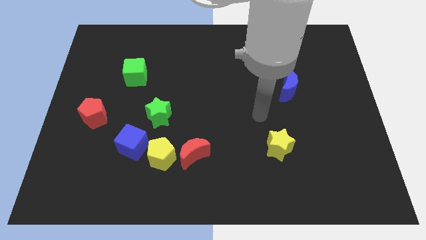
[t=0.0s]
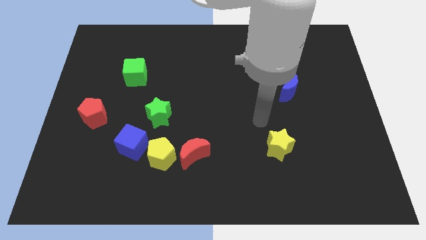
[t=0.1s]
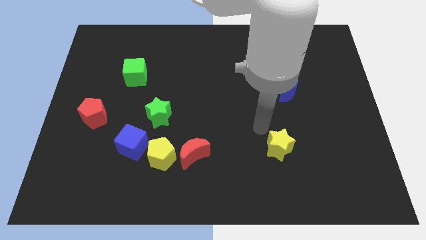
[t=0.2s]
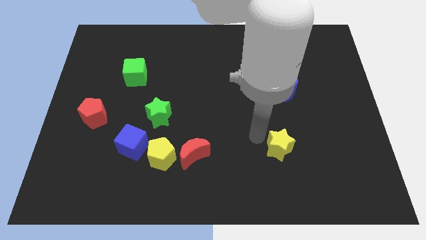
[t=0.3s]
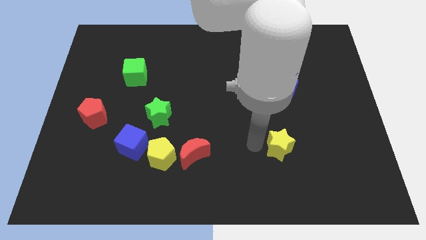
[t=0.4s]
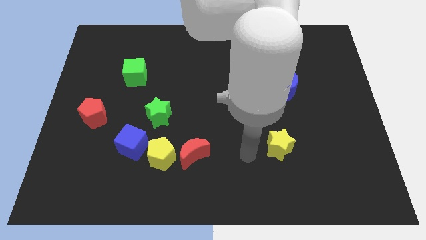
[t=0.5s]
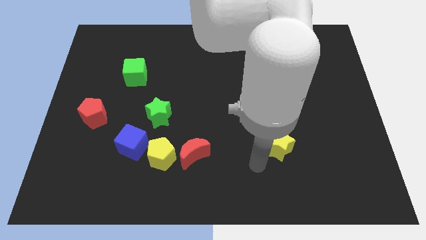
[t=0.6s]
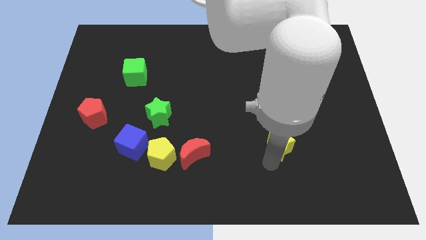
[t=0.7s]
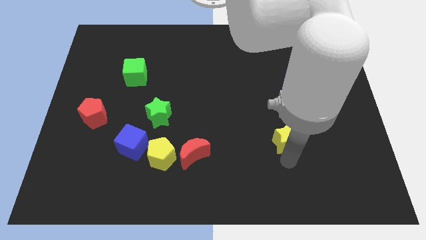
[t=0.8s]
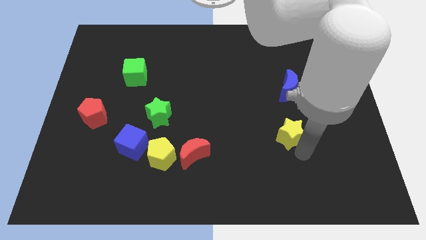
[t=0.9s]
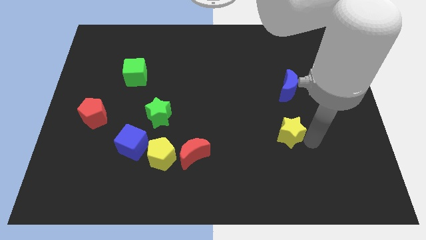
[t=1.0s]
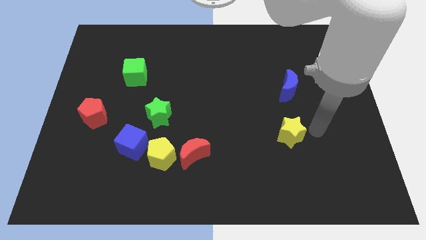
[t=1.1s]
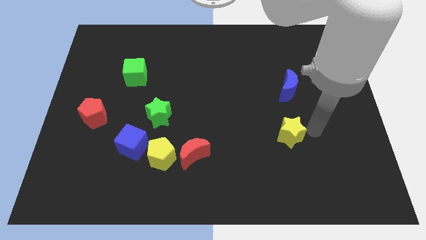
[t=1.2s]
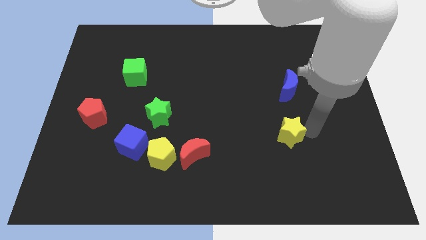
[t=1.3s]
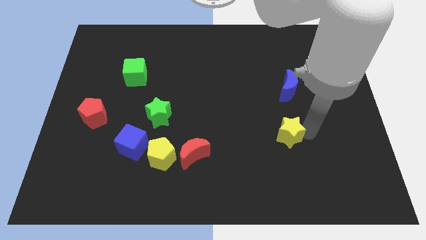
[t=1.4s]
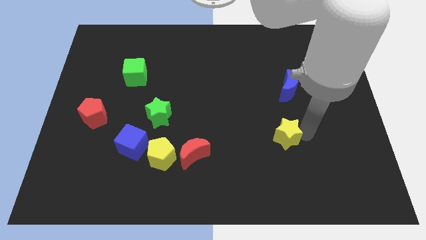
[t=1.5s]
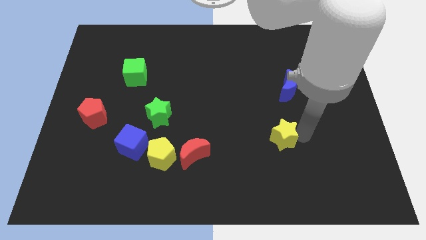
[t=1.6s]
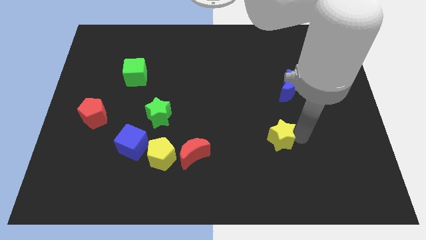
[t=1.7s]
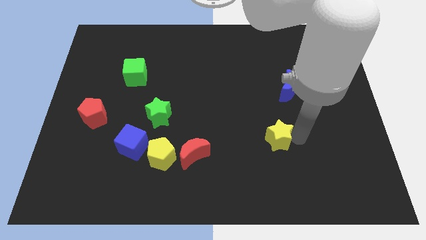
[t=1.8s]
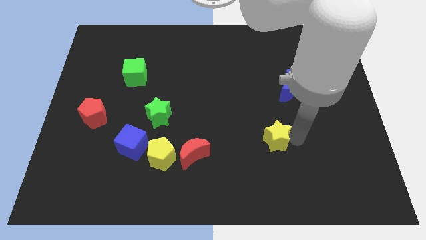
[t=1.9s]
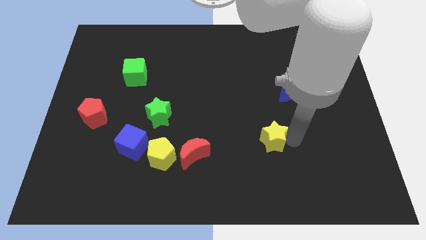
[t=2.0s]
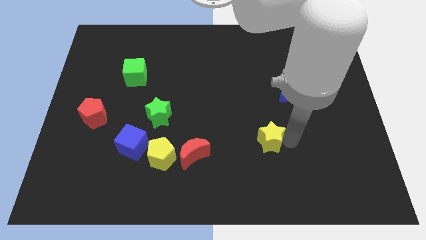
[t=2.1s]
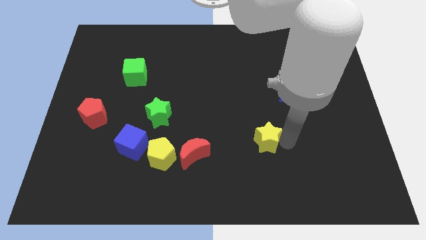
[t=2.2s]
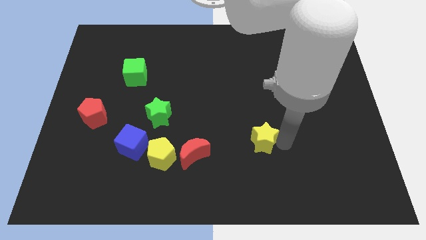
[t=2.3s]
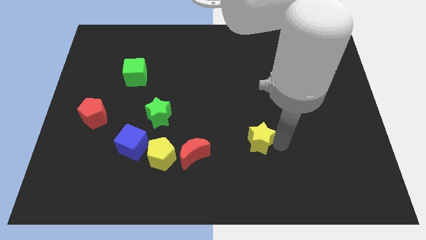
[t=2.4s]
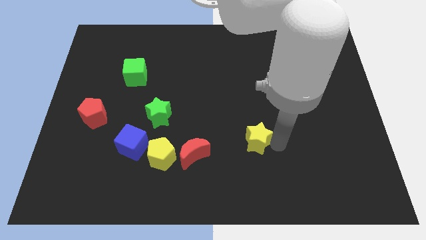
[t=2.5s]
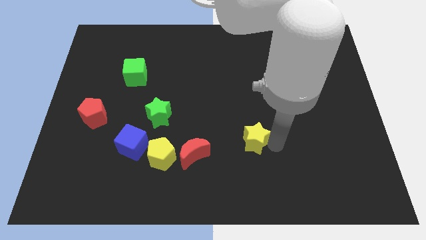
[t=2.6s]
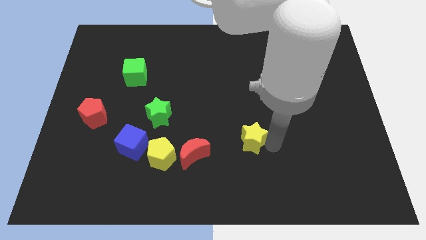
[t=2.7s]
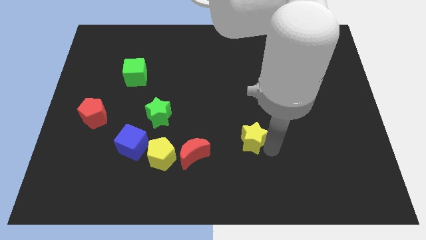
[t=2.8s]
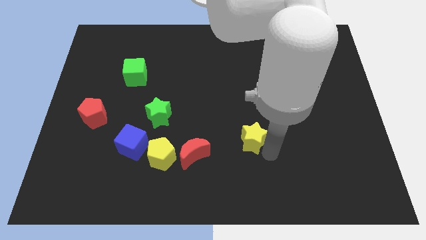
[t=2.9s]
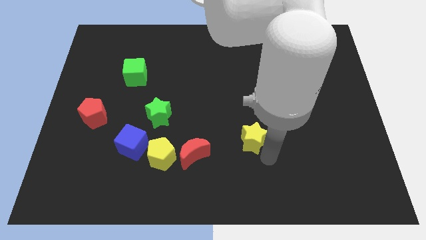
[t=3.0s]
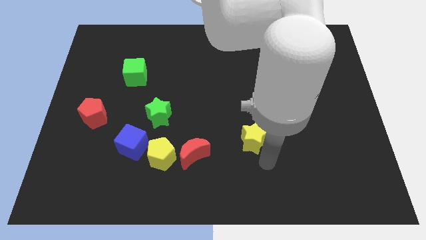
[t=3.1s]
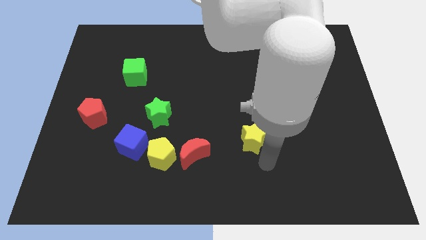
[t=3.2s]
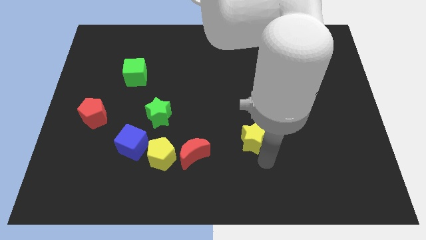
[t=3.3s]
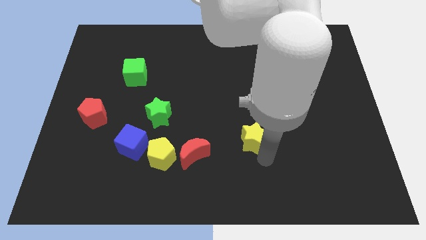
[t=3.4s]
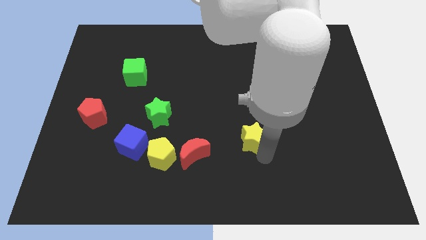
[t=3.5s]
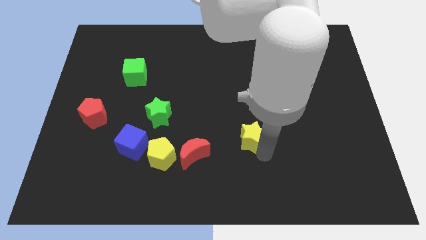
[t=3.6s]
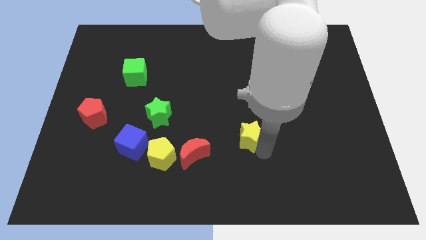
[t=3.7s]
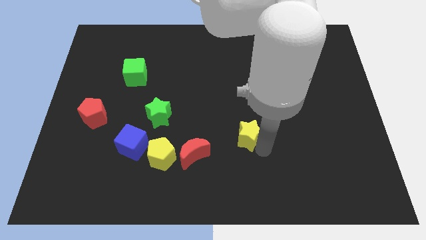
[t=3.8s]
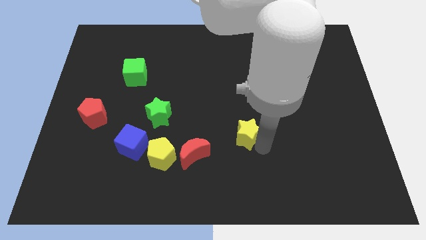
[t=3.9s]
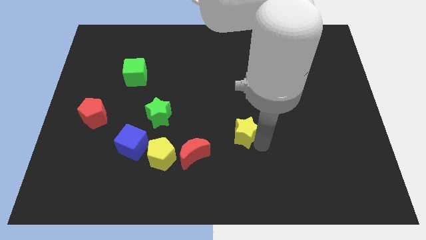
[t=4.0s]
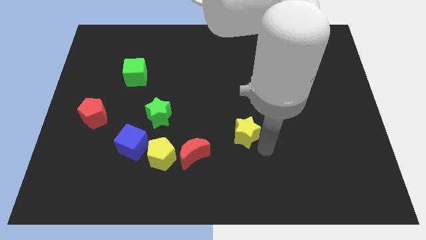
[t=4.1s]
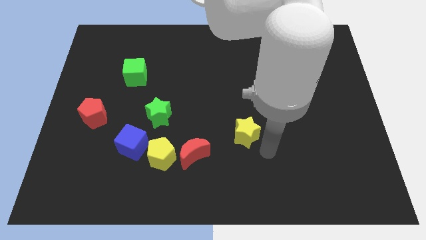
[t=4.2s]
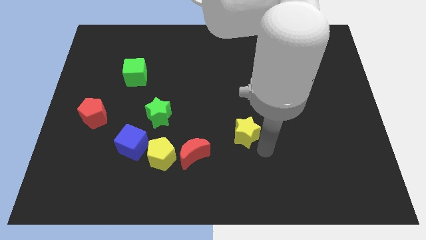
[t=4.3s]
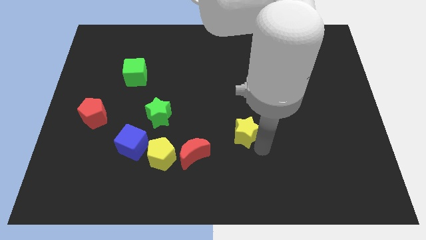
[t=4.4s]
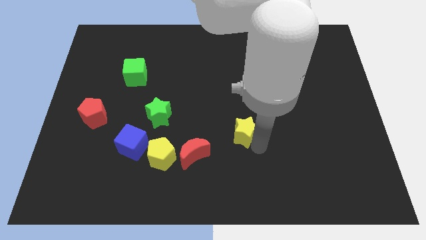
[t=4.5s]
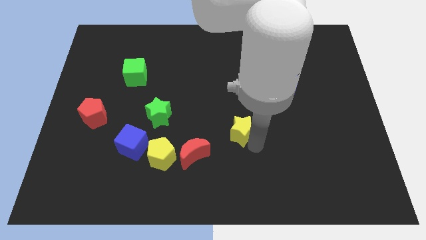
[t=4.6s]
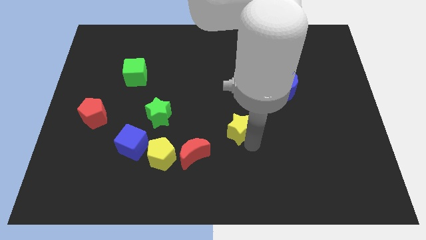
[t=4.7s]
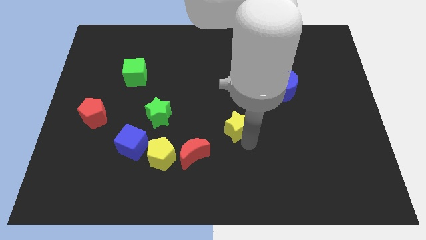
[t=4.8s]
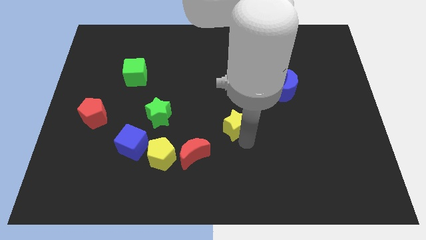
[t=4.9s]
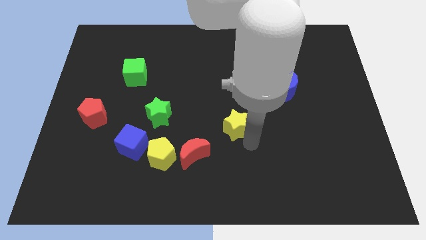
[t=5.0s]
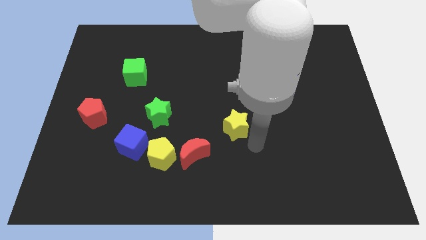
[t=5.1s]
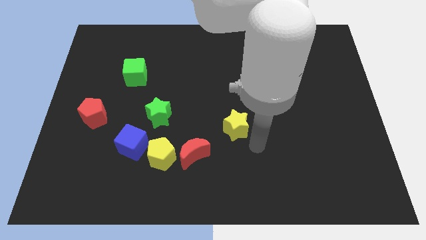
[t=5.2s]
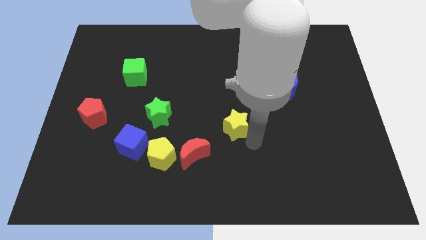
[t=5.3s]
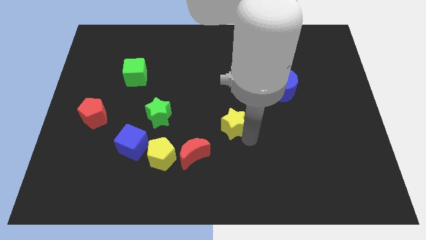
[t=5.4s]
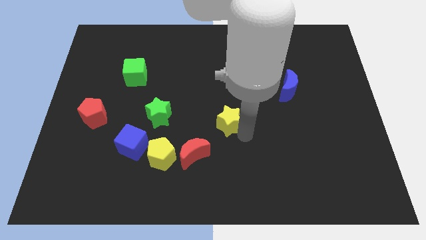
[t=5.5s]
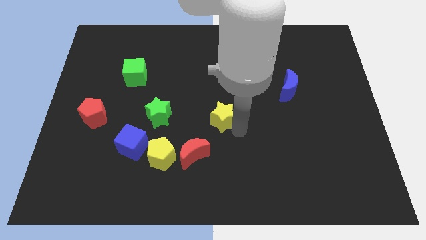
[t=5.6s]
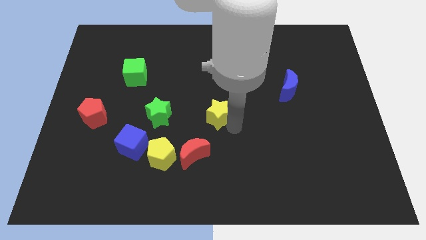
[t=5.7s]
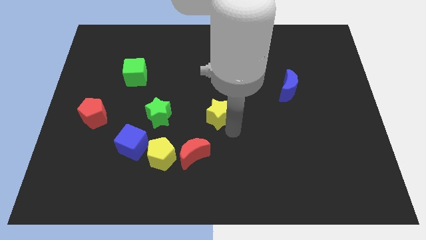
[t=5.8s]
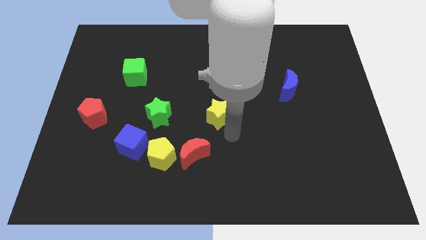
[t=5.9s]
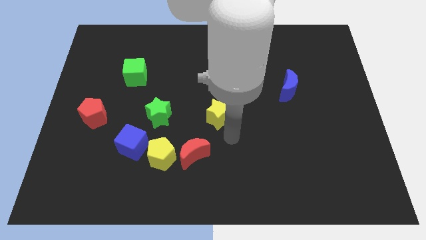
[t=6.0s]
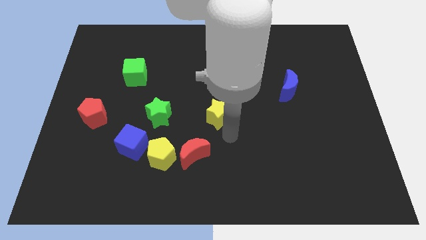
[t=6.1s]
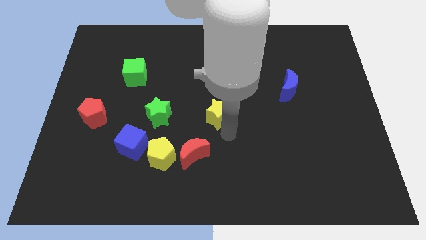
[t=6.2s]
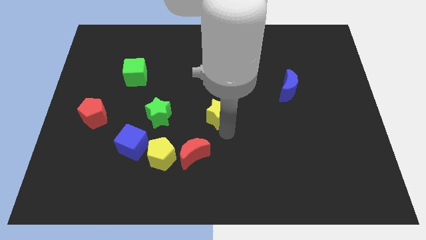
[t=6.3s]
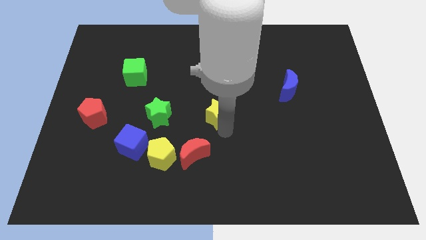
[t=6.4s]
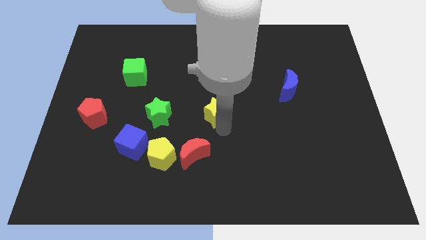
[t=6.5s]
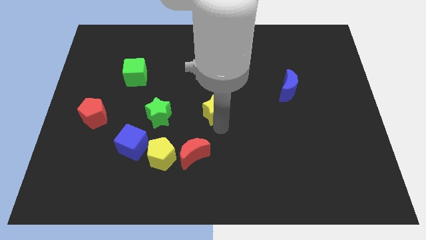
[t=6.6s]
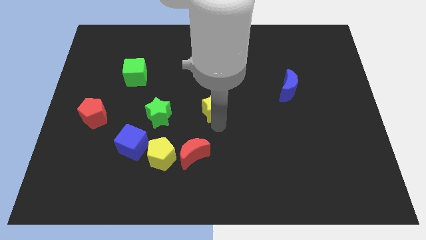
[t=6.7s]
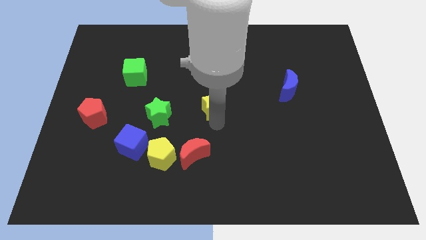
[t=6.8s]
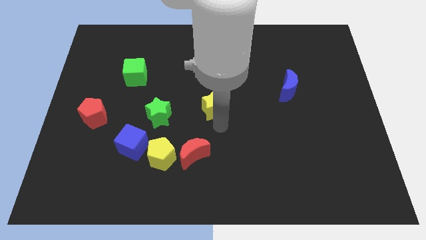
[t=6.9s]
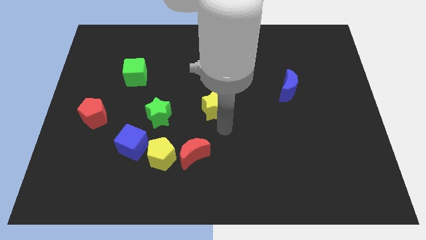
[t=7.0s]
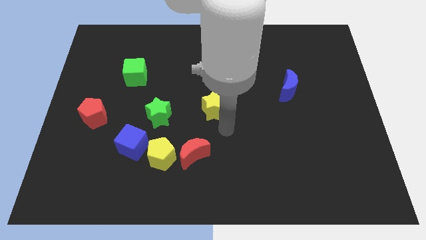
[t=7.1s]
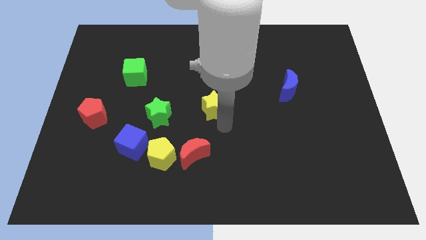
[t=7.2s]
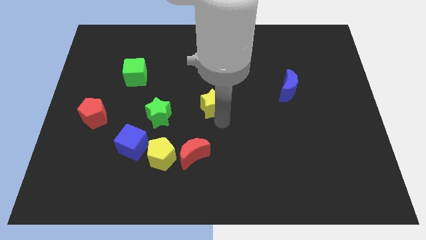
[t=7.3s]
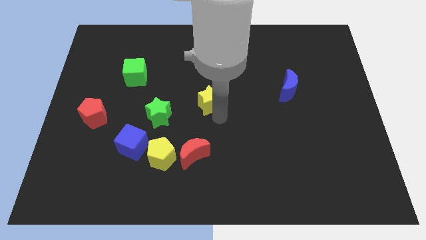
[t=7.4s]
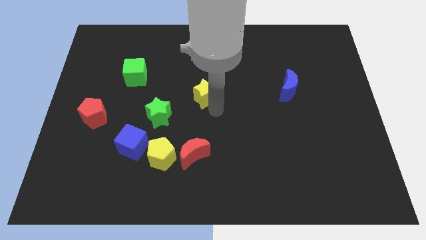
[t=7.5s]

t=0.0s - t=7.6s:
push the yellow star upwards and then left

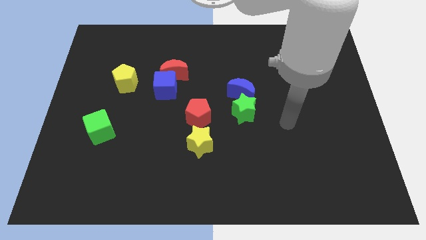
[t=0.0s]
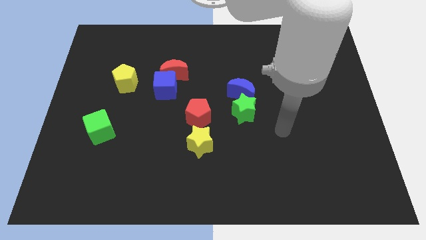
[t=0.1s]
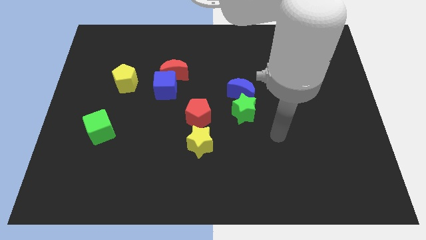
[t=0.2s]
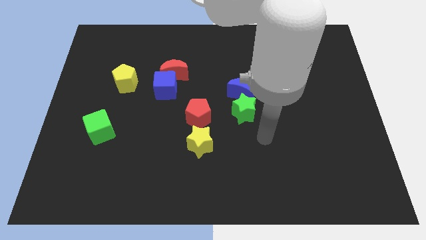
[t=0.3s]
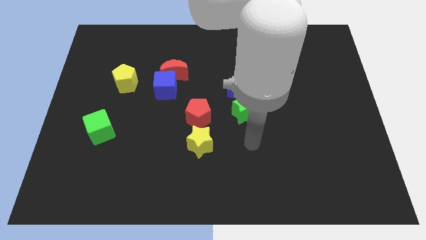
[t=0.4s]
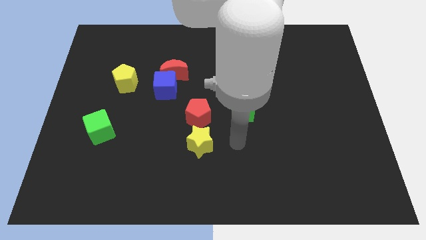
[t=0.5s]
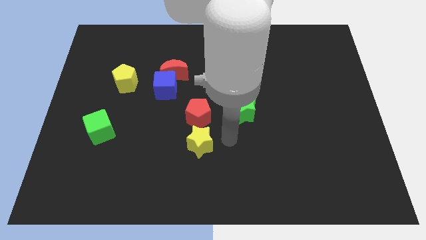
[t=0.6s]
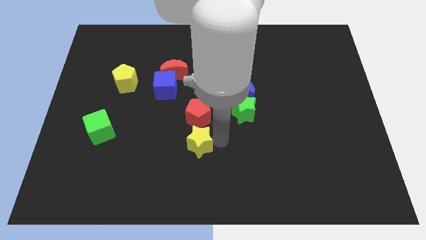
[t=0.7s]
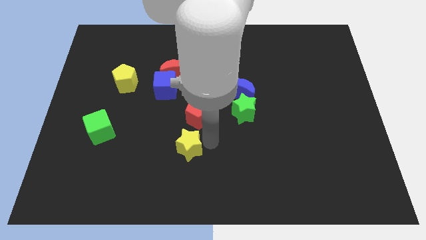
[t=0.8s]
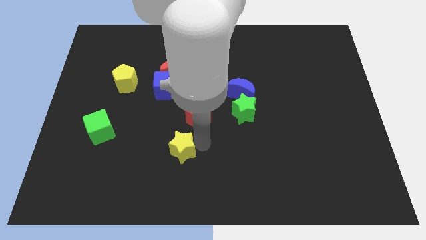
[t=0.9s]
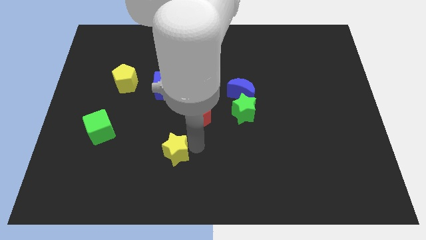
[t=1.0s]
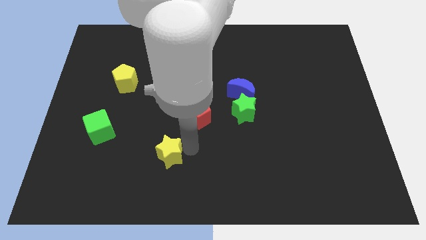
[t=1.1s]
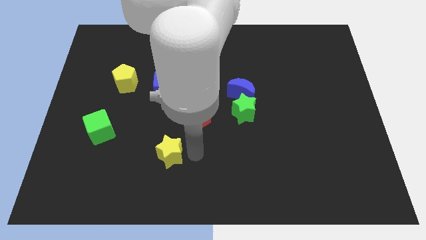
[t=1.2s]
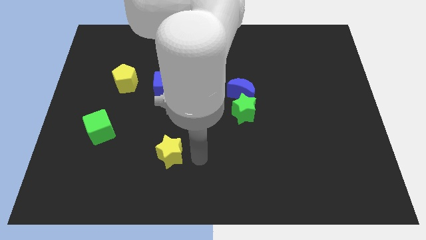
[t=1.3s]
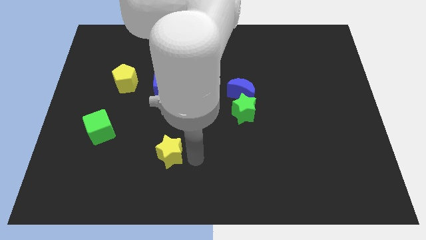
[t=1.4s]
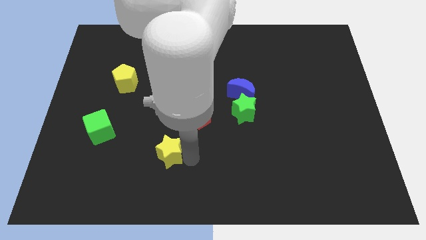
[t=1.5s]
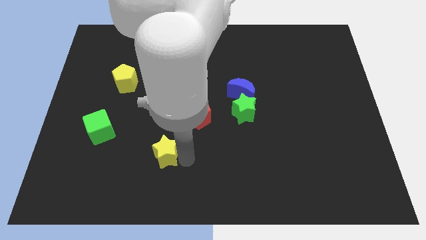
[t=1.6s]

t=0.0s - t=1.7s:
slightly move the yellow star to the left
